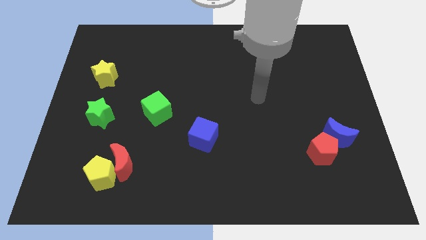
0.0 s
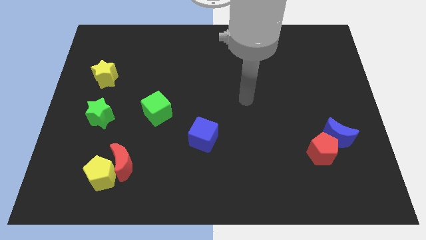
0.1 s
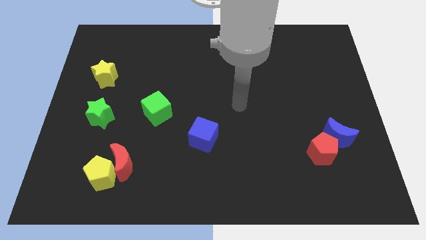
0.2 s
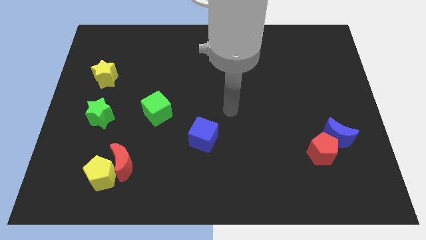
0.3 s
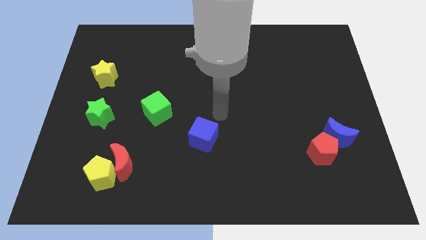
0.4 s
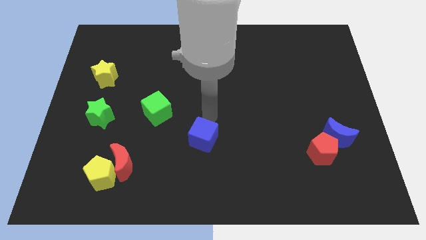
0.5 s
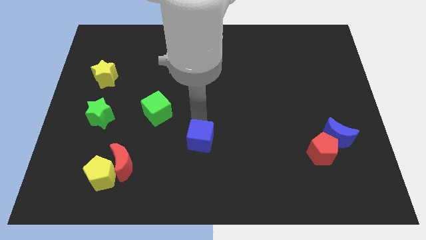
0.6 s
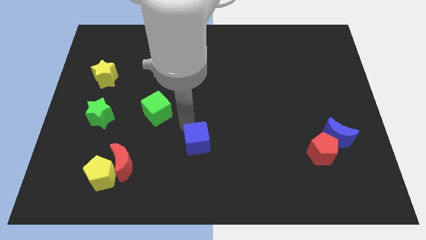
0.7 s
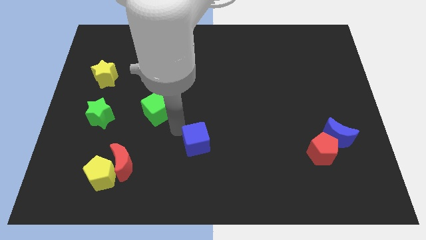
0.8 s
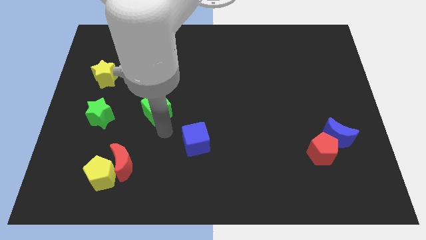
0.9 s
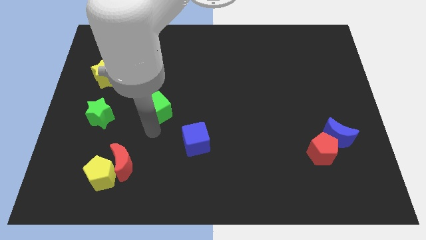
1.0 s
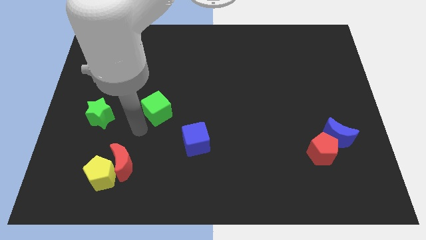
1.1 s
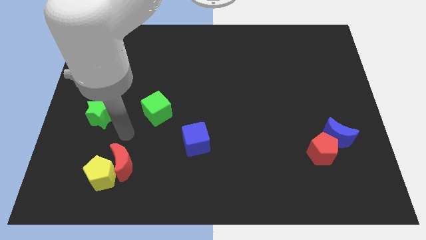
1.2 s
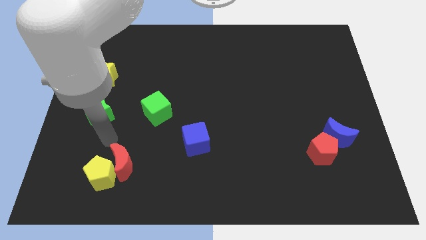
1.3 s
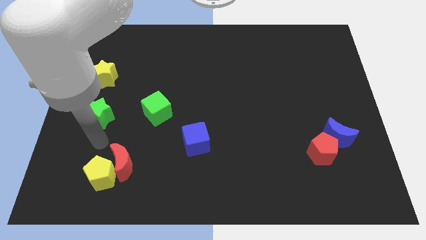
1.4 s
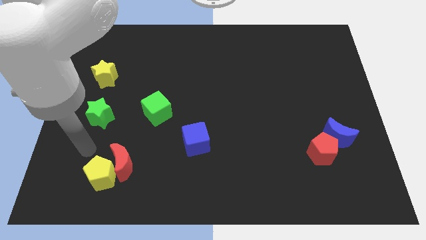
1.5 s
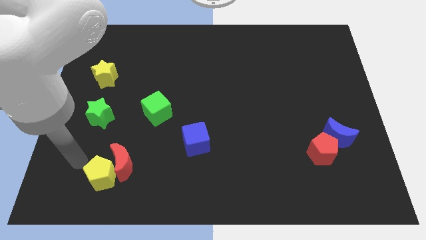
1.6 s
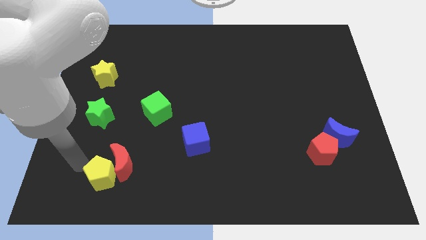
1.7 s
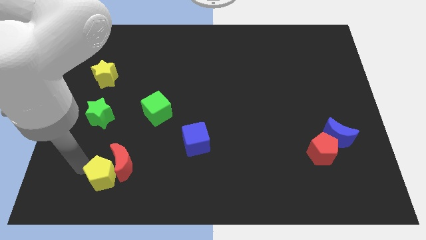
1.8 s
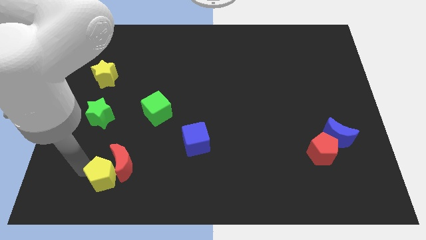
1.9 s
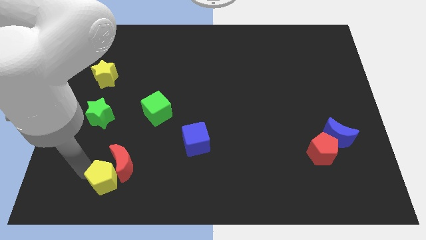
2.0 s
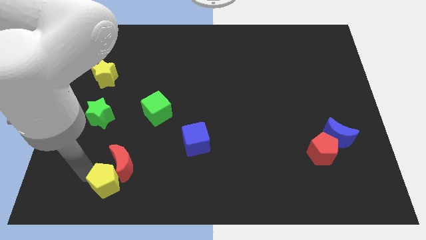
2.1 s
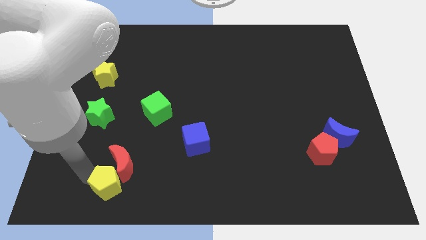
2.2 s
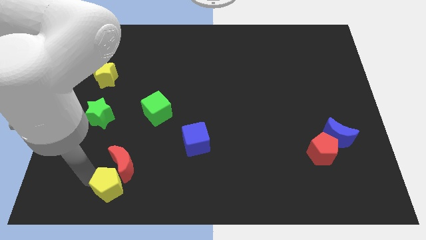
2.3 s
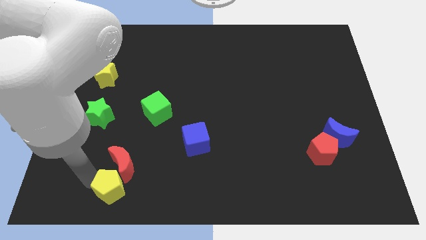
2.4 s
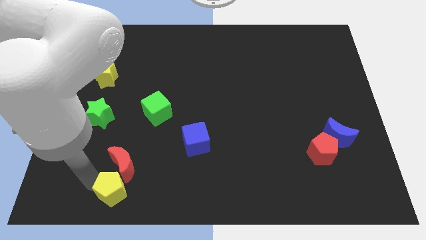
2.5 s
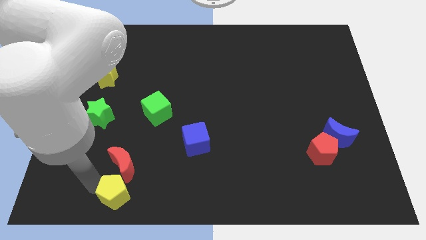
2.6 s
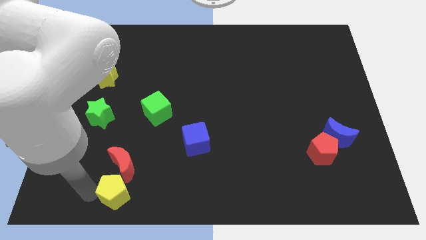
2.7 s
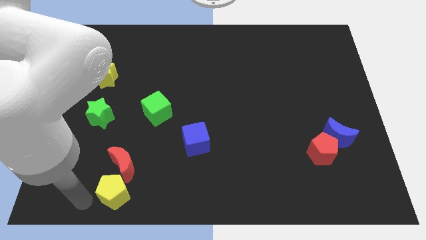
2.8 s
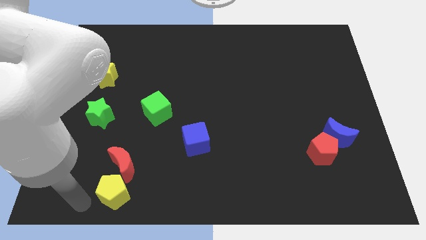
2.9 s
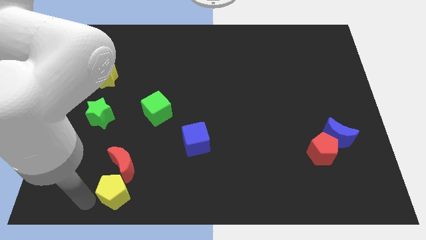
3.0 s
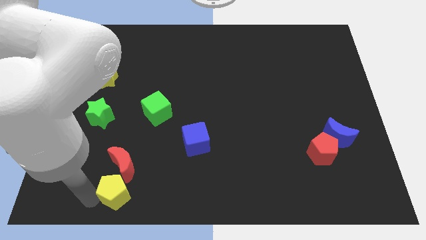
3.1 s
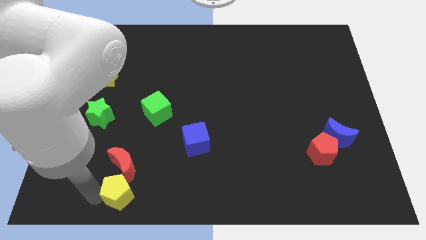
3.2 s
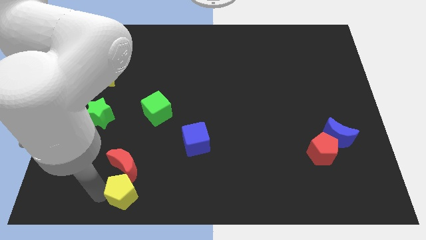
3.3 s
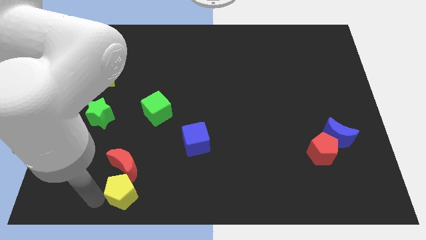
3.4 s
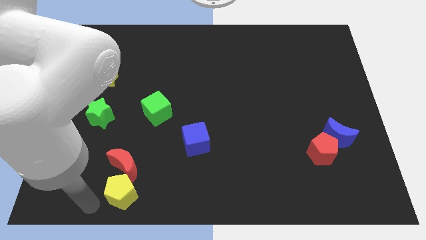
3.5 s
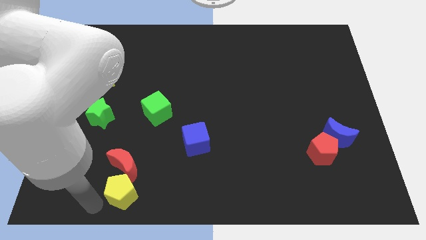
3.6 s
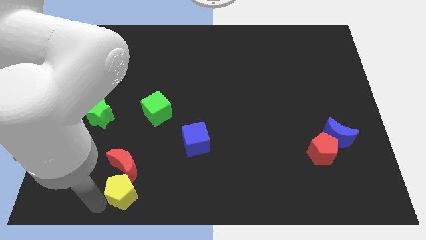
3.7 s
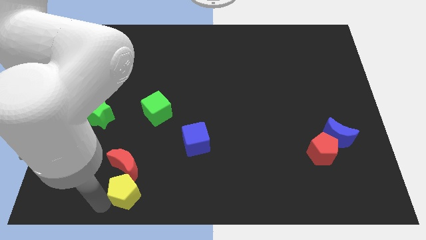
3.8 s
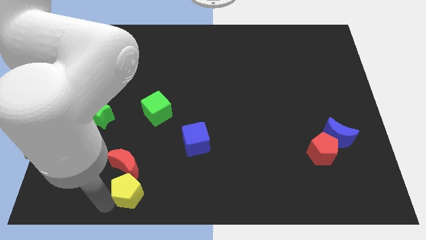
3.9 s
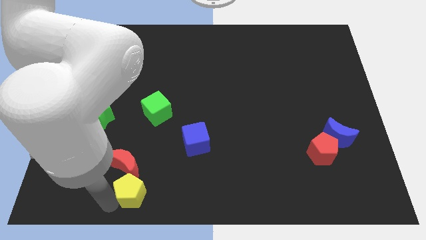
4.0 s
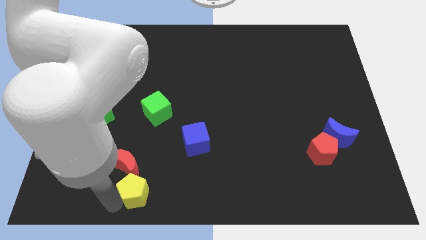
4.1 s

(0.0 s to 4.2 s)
slide the yellow pentagon to the right slightly

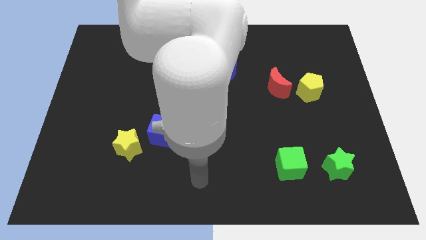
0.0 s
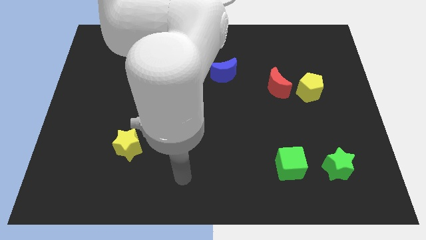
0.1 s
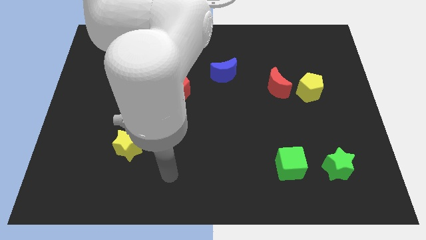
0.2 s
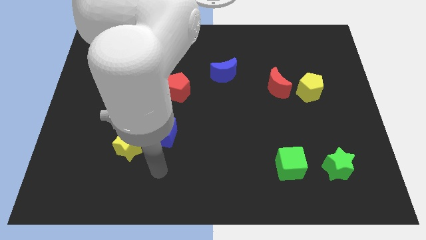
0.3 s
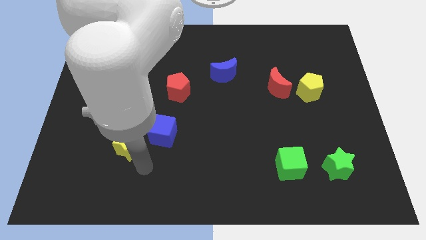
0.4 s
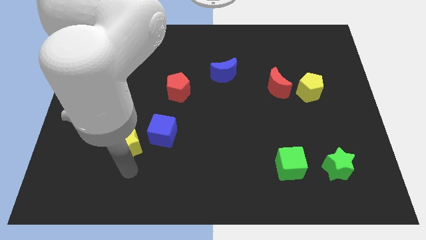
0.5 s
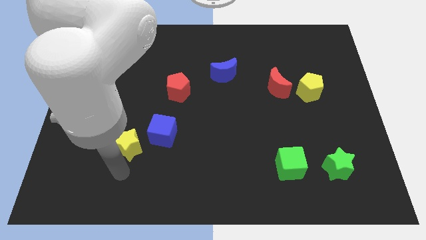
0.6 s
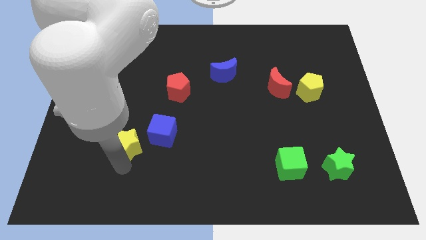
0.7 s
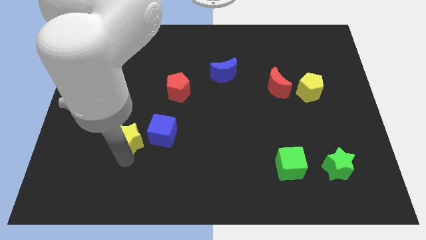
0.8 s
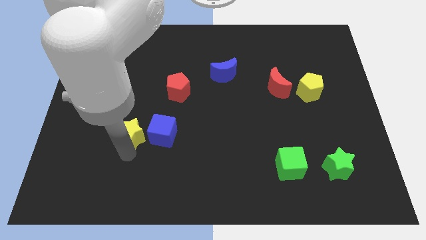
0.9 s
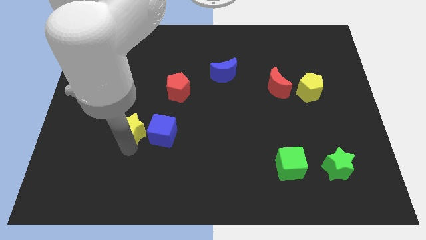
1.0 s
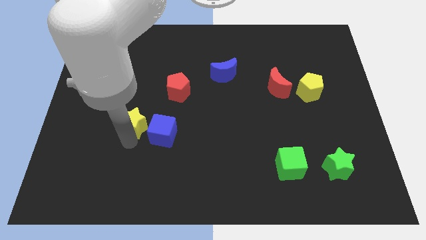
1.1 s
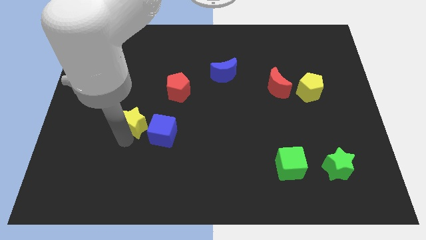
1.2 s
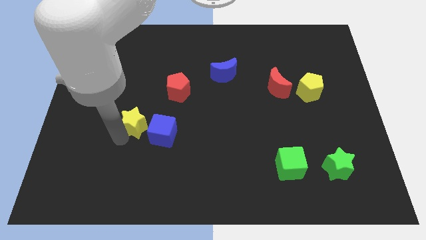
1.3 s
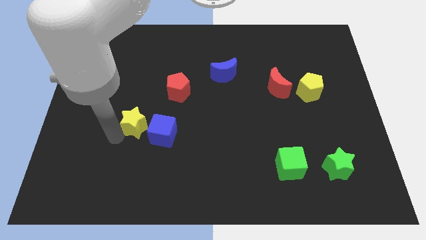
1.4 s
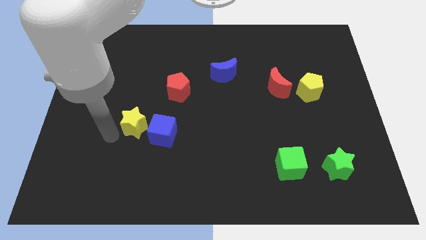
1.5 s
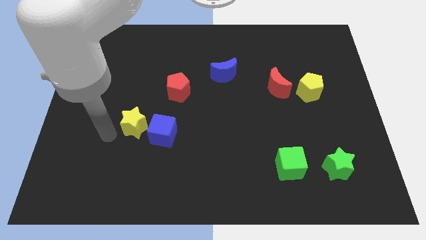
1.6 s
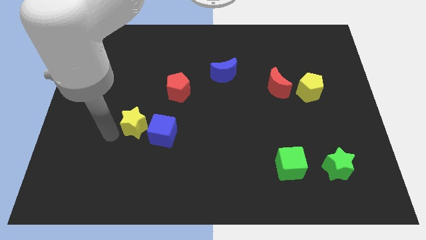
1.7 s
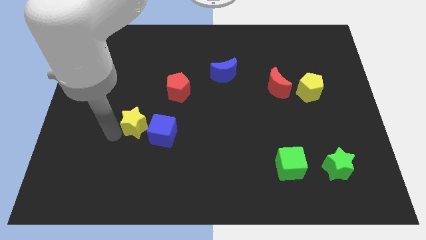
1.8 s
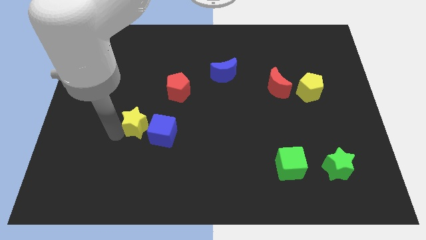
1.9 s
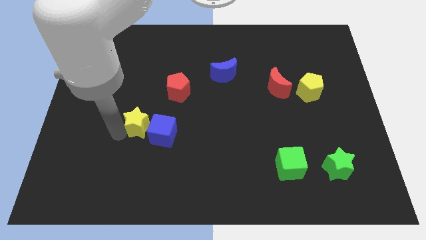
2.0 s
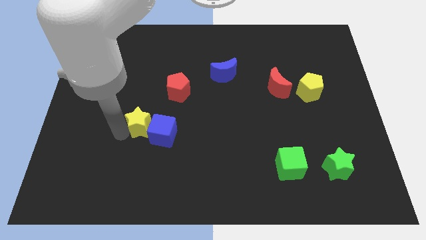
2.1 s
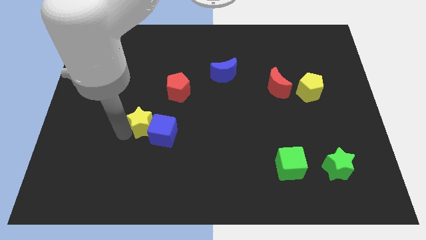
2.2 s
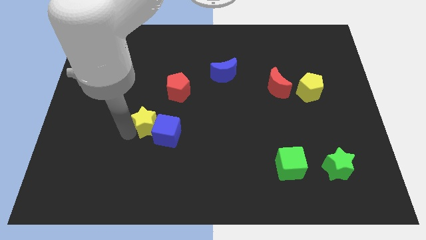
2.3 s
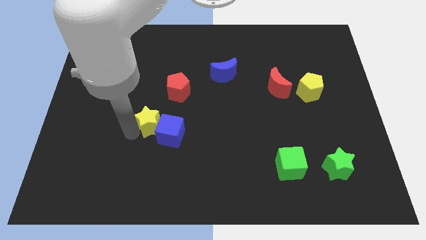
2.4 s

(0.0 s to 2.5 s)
push the yellow star diagonally upwards and to the right somewhat

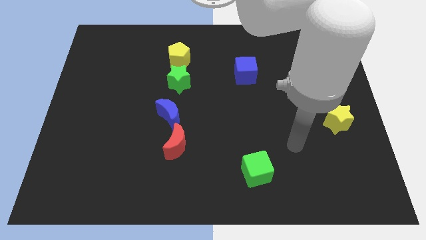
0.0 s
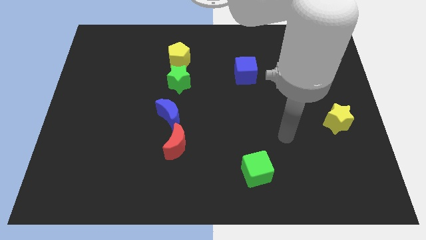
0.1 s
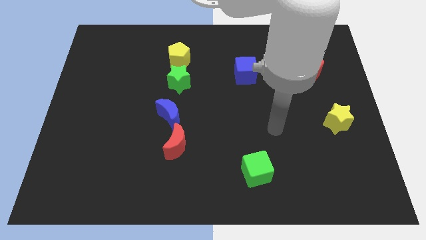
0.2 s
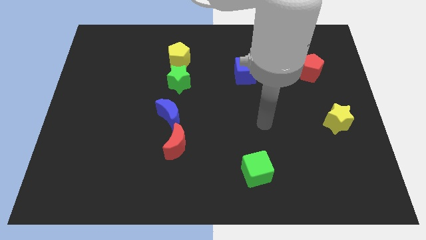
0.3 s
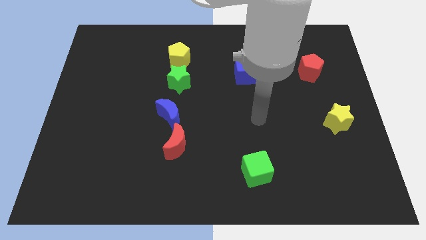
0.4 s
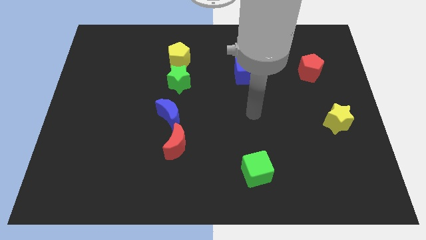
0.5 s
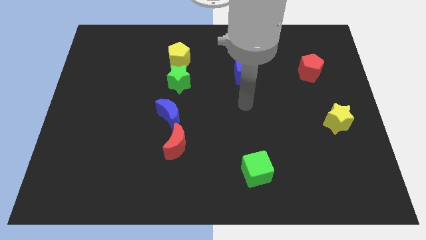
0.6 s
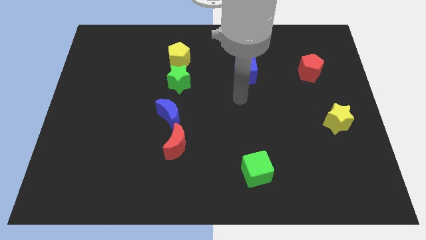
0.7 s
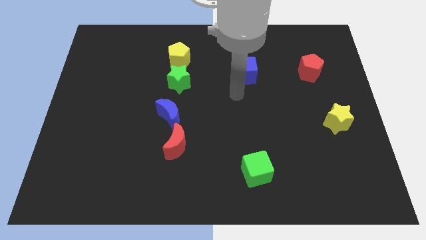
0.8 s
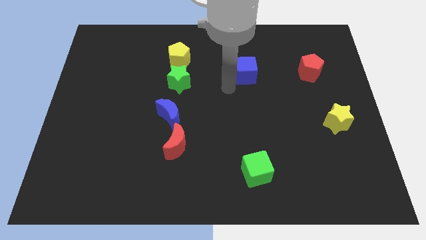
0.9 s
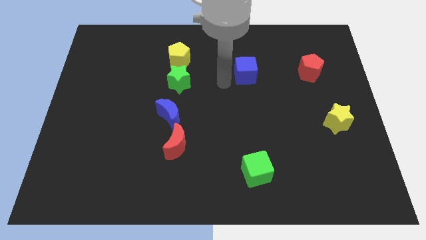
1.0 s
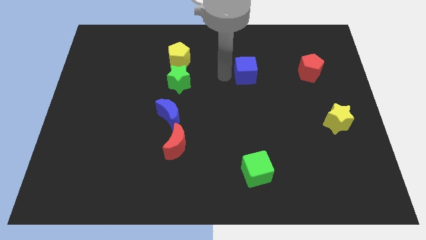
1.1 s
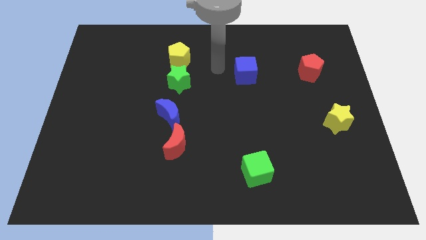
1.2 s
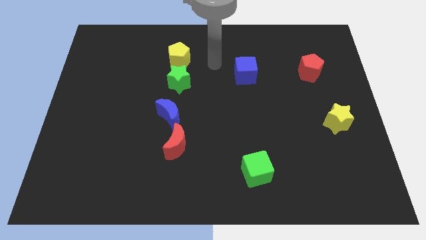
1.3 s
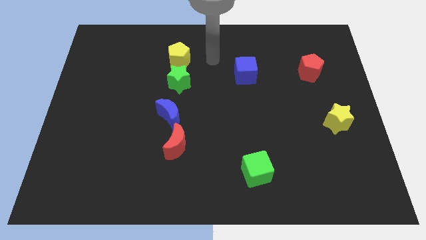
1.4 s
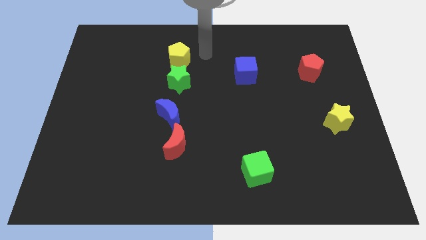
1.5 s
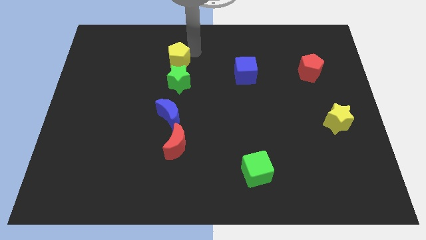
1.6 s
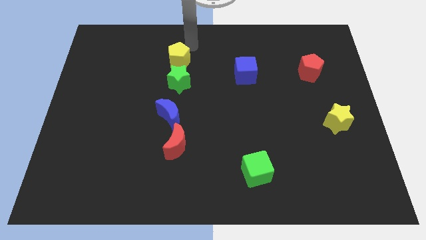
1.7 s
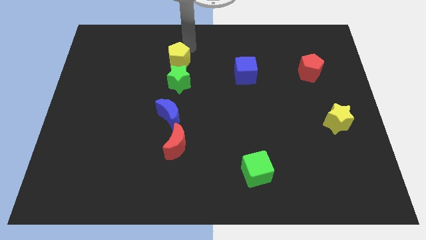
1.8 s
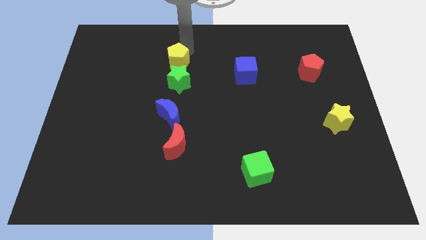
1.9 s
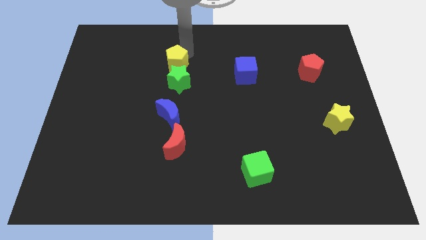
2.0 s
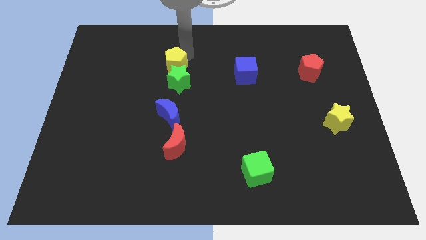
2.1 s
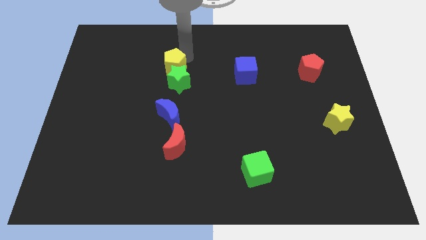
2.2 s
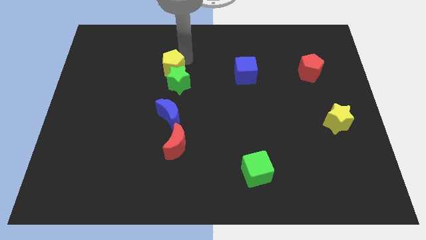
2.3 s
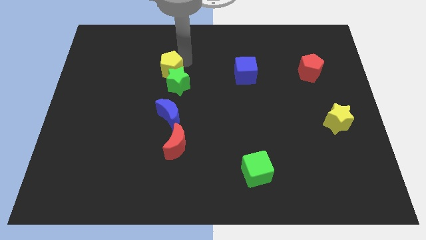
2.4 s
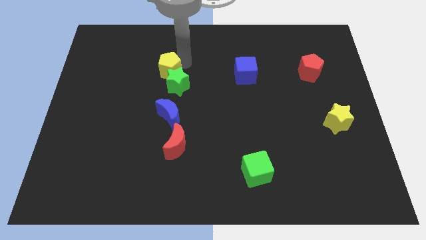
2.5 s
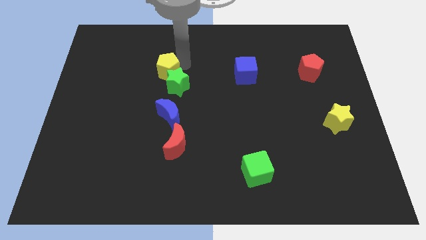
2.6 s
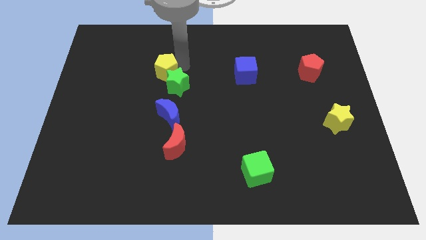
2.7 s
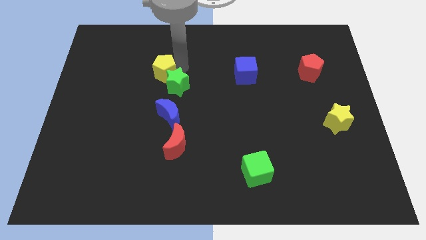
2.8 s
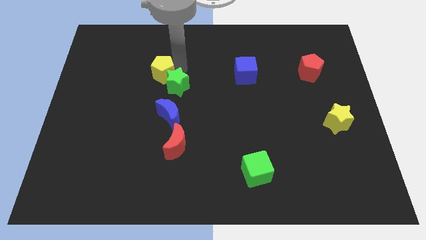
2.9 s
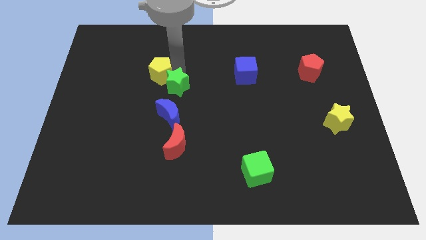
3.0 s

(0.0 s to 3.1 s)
slightly push the yellow pentagon diagonally downwards and left
